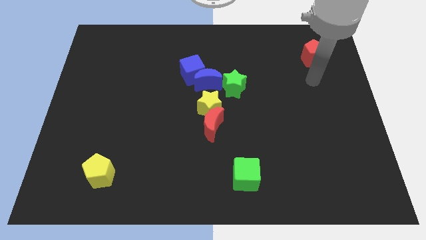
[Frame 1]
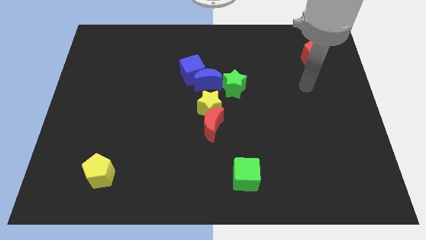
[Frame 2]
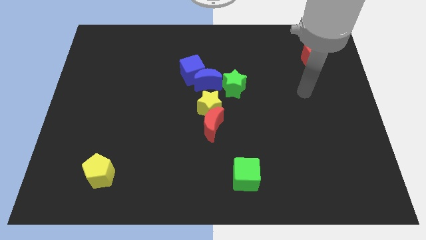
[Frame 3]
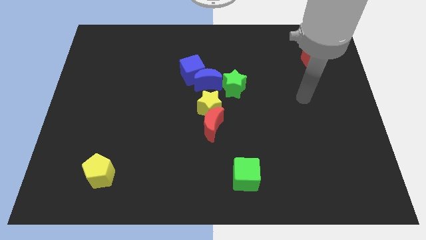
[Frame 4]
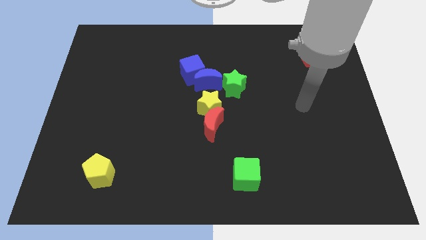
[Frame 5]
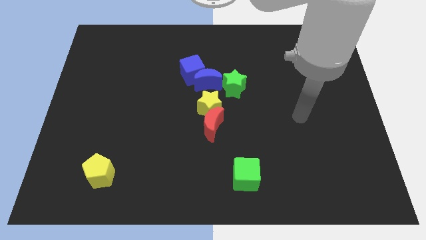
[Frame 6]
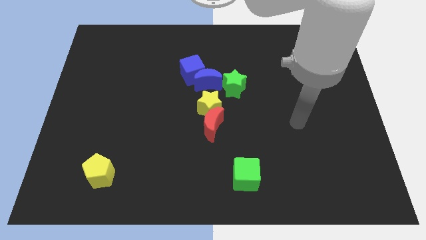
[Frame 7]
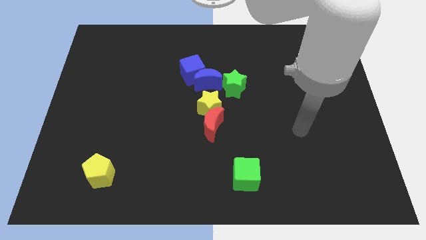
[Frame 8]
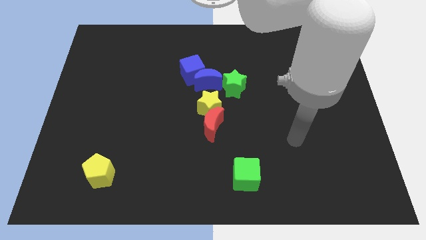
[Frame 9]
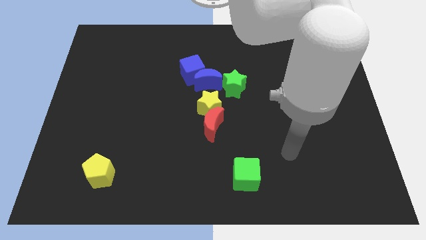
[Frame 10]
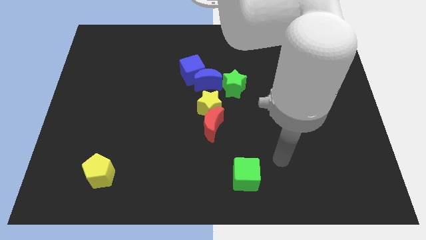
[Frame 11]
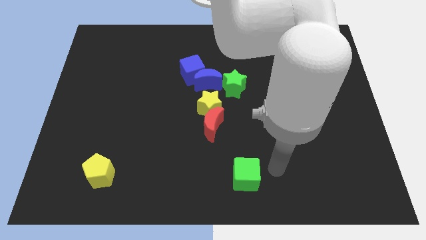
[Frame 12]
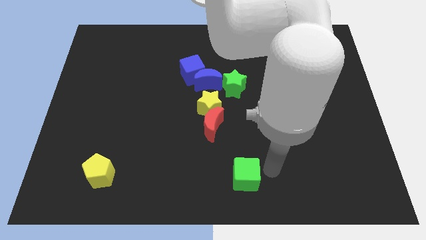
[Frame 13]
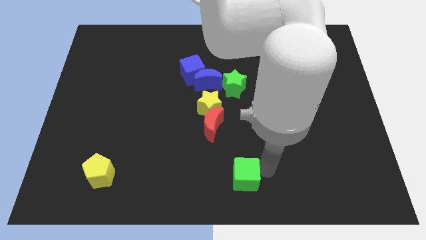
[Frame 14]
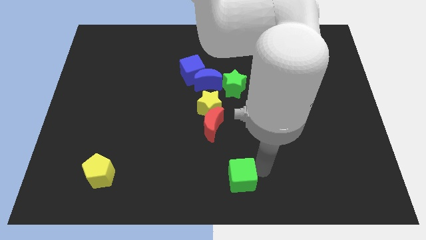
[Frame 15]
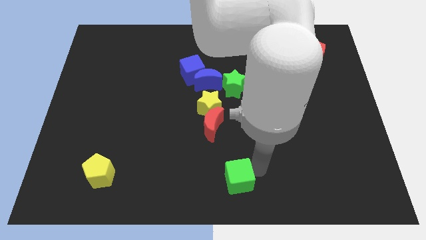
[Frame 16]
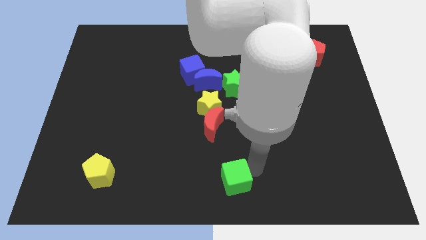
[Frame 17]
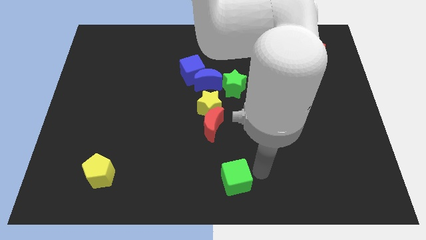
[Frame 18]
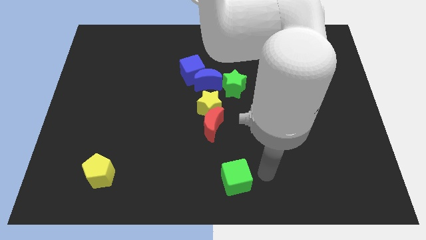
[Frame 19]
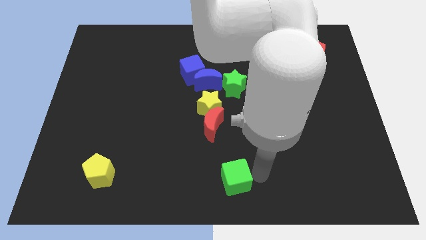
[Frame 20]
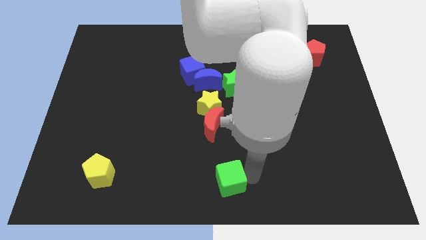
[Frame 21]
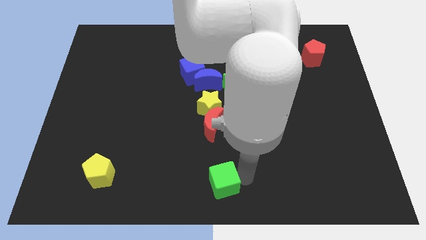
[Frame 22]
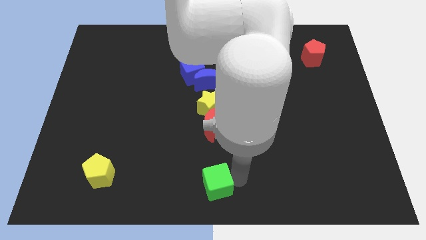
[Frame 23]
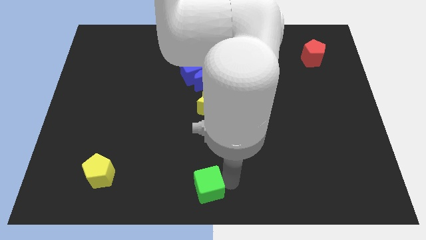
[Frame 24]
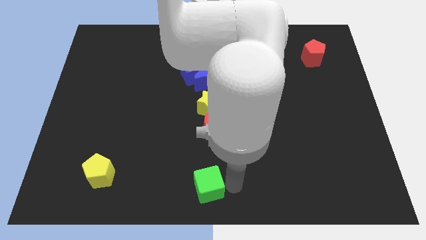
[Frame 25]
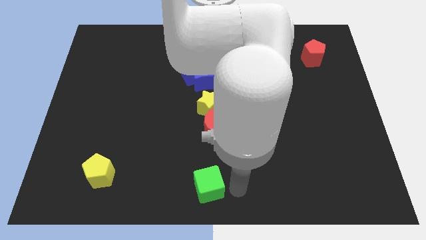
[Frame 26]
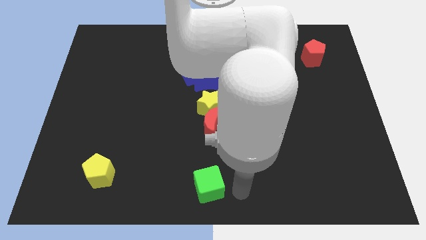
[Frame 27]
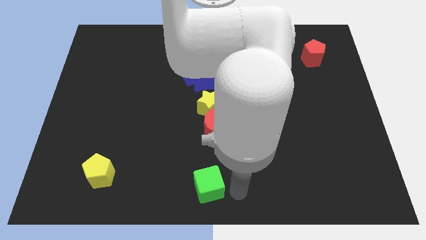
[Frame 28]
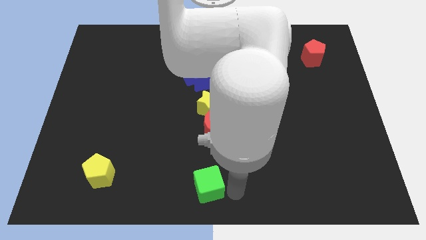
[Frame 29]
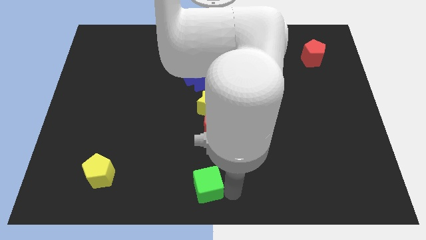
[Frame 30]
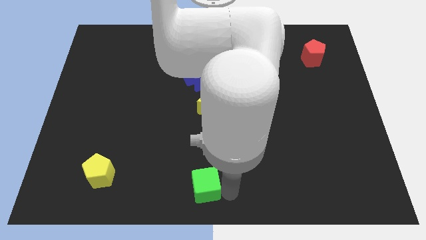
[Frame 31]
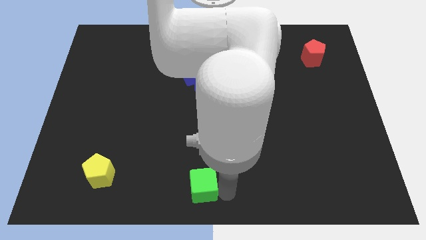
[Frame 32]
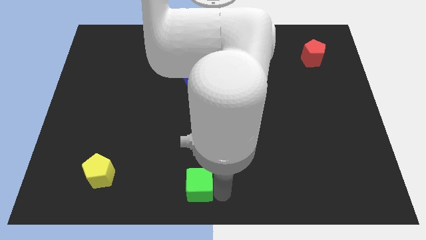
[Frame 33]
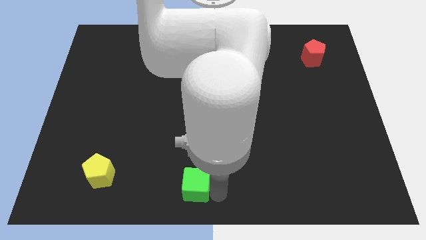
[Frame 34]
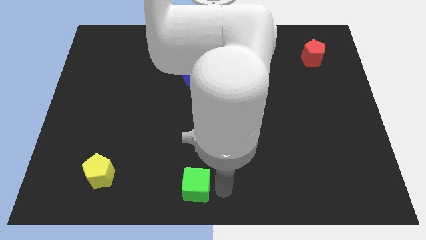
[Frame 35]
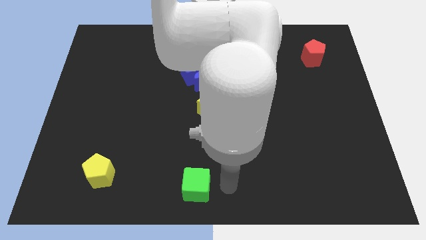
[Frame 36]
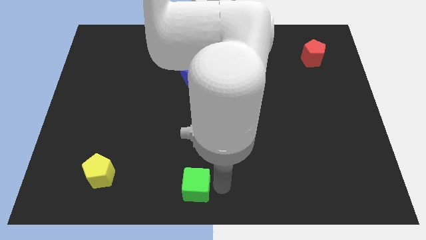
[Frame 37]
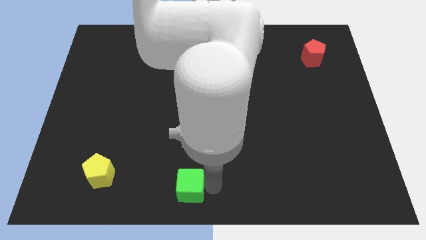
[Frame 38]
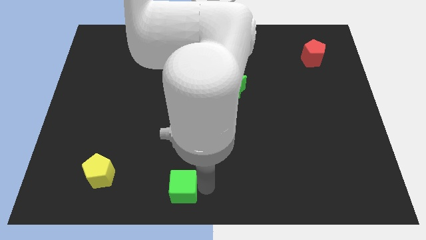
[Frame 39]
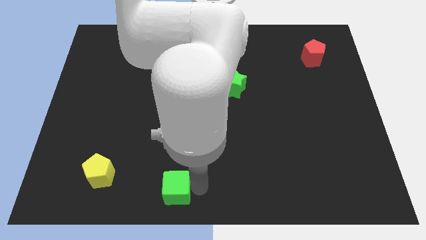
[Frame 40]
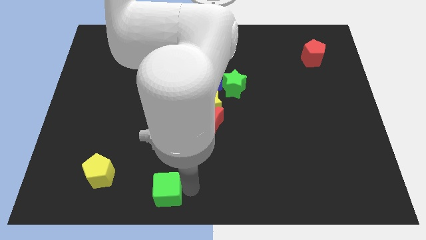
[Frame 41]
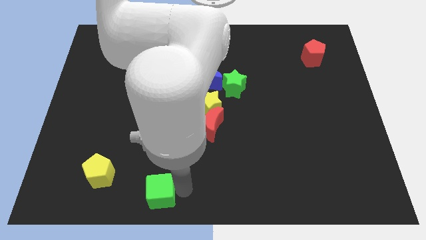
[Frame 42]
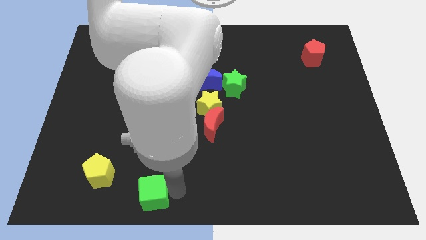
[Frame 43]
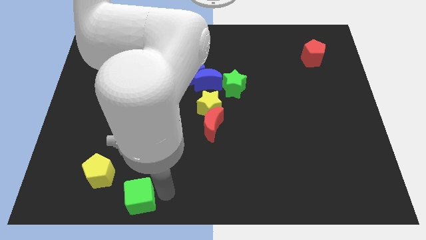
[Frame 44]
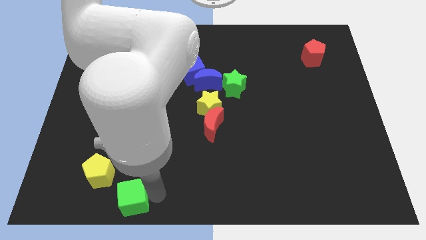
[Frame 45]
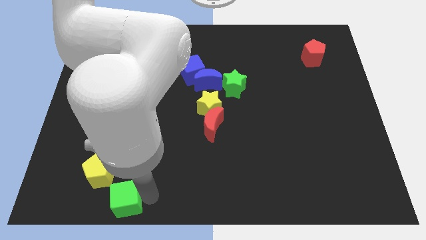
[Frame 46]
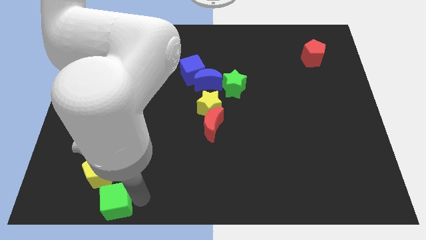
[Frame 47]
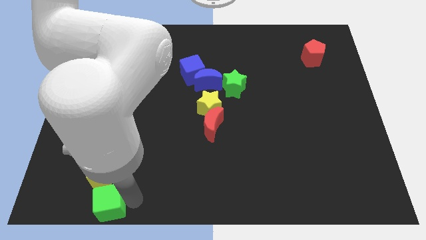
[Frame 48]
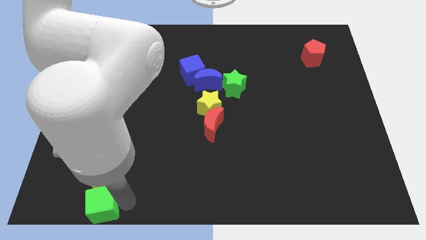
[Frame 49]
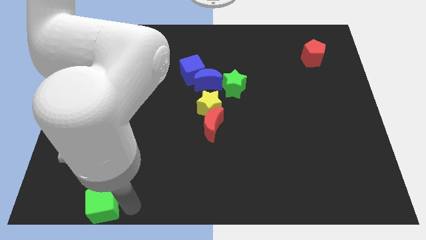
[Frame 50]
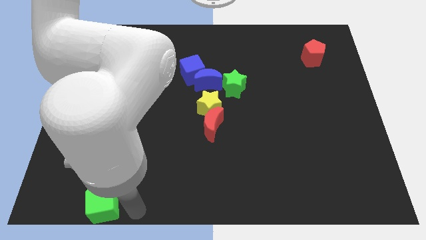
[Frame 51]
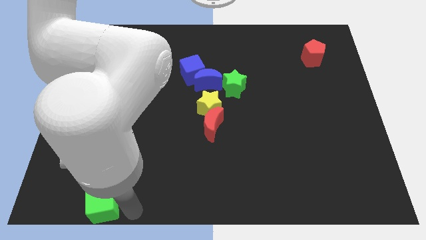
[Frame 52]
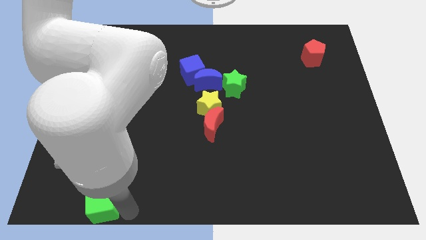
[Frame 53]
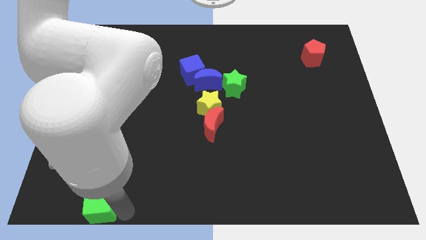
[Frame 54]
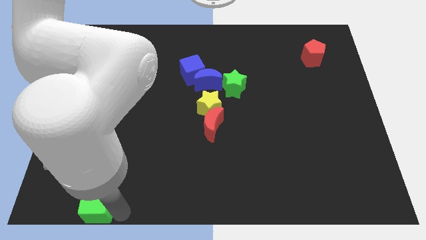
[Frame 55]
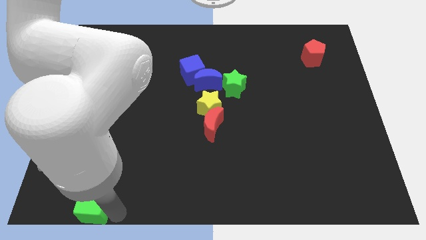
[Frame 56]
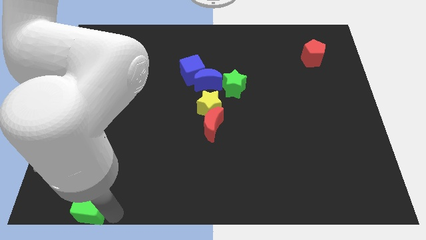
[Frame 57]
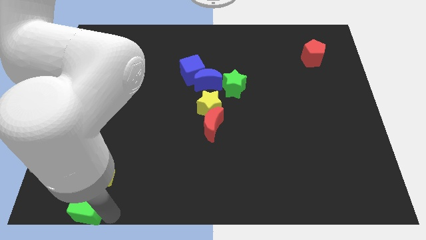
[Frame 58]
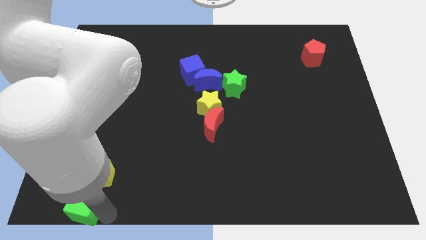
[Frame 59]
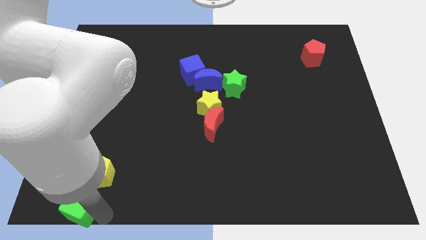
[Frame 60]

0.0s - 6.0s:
put the green cube to the bottom left of the board

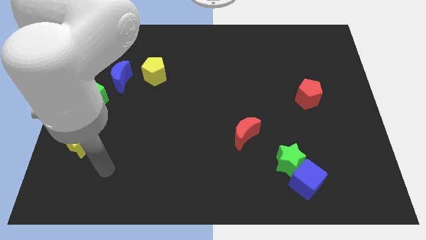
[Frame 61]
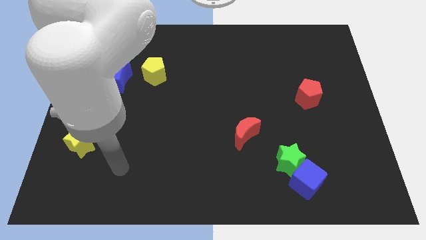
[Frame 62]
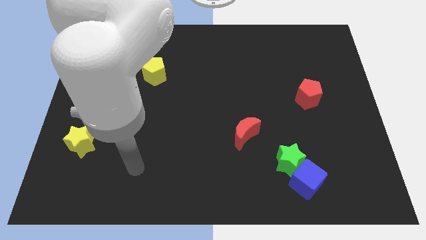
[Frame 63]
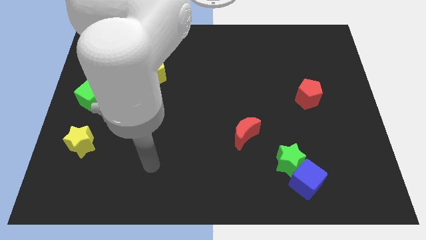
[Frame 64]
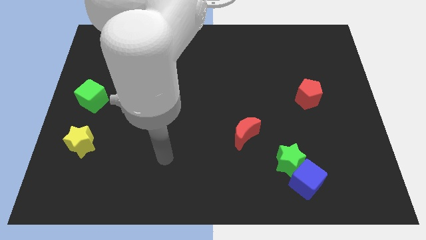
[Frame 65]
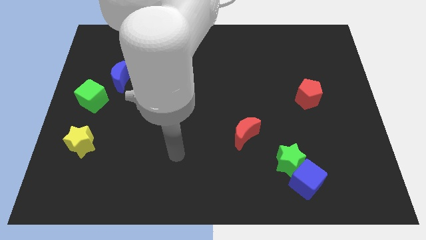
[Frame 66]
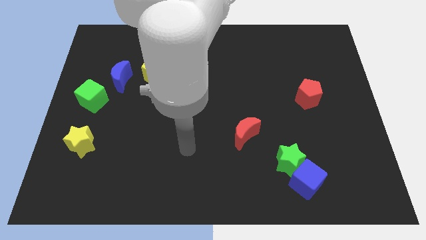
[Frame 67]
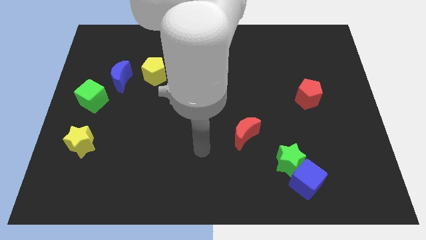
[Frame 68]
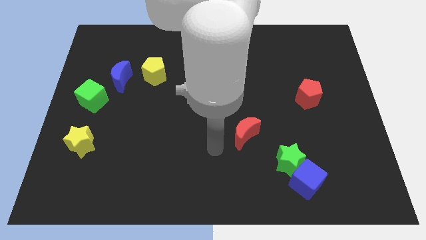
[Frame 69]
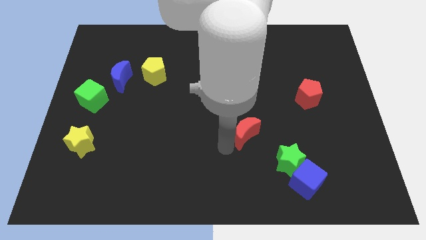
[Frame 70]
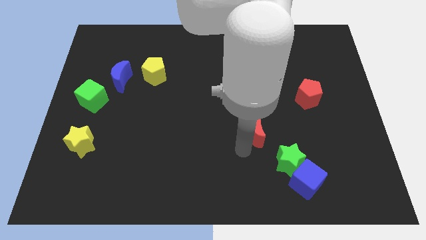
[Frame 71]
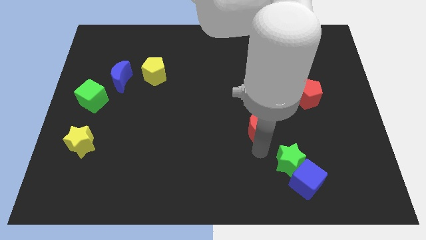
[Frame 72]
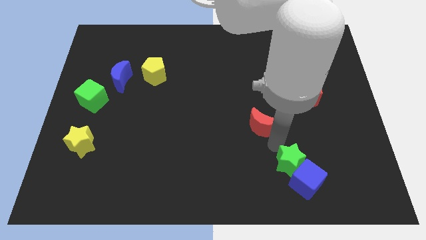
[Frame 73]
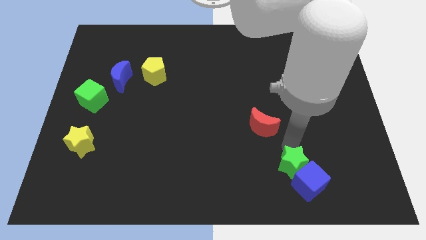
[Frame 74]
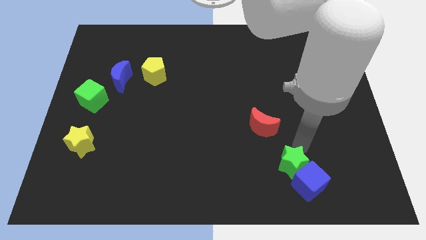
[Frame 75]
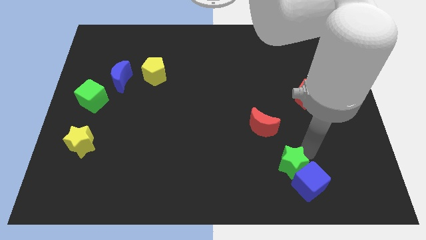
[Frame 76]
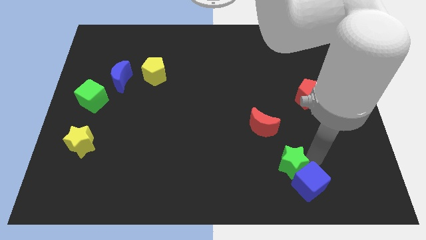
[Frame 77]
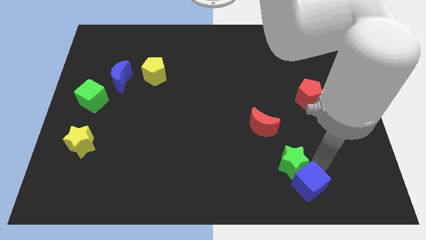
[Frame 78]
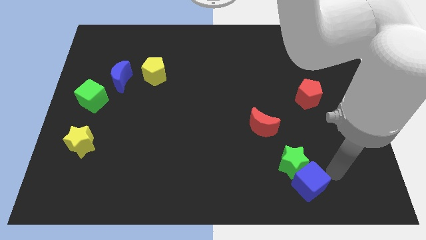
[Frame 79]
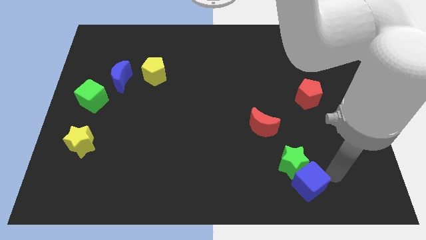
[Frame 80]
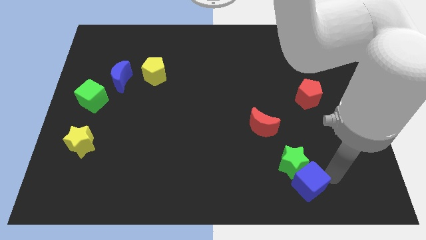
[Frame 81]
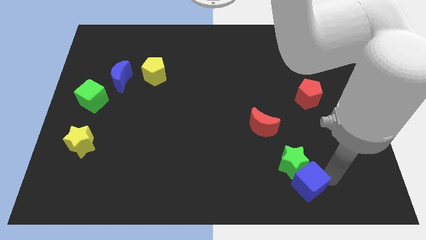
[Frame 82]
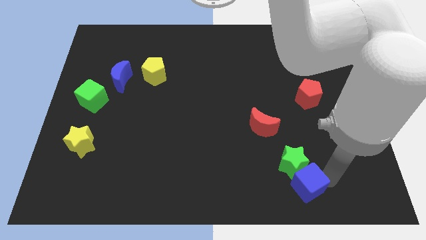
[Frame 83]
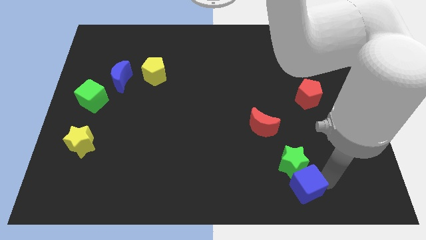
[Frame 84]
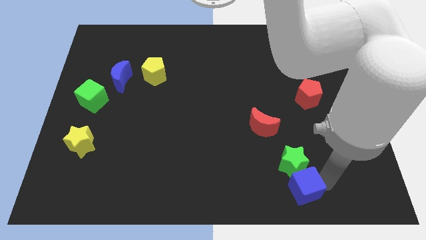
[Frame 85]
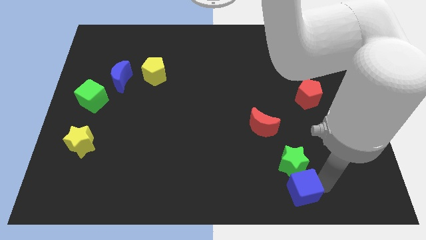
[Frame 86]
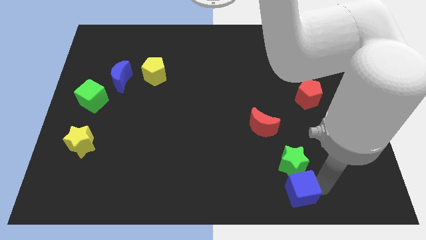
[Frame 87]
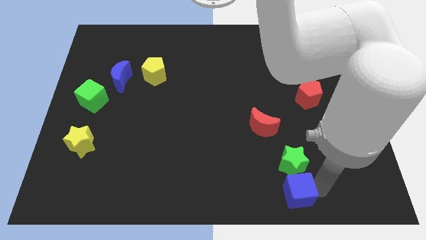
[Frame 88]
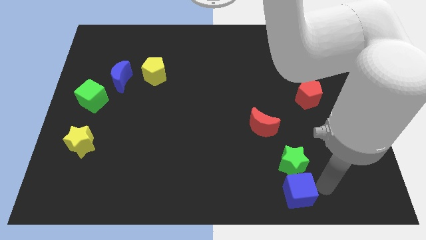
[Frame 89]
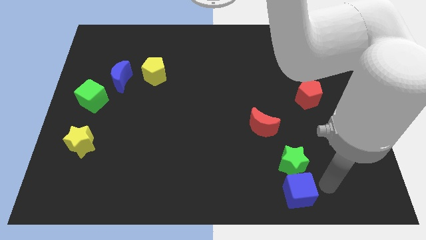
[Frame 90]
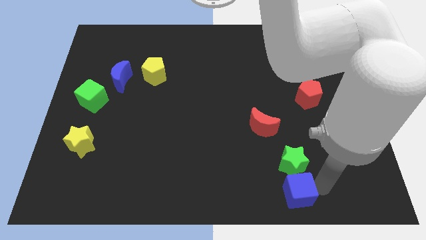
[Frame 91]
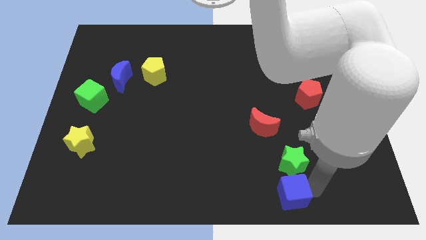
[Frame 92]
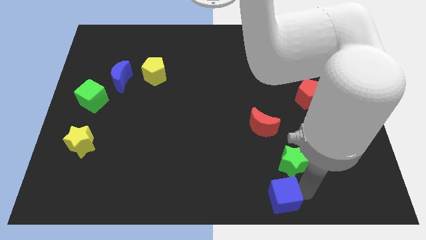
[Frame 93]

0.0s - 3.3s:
slide the blue cube to the bottom side
